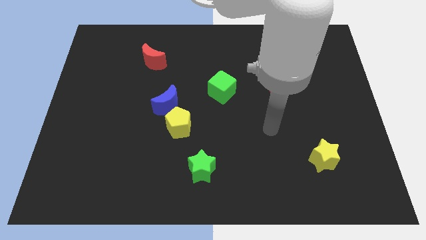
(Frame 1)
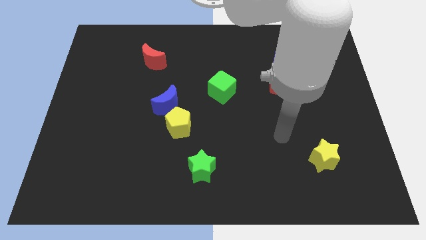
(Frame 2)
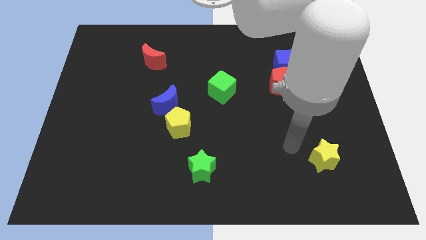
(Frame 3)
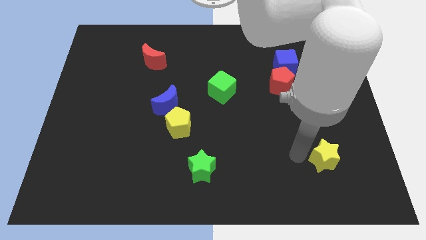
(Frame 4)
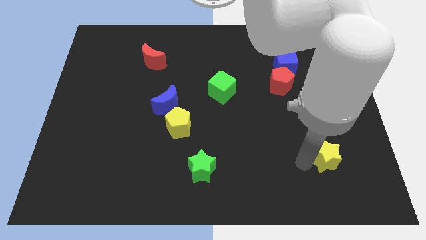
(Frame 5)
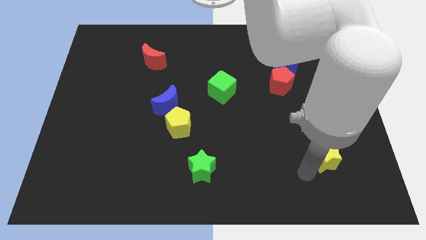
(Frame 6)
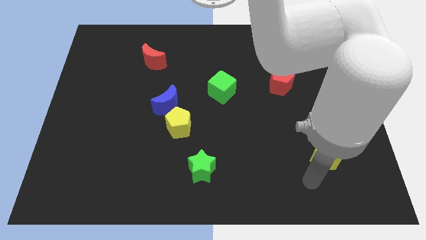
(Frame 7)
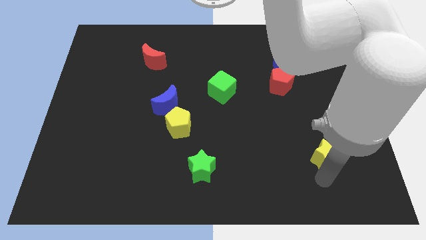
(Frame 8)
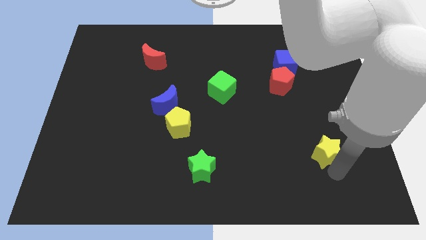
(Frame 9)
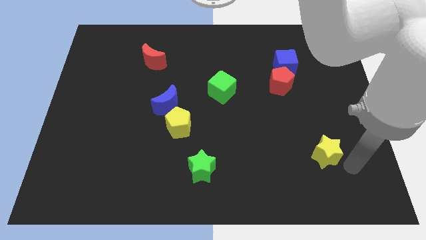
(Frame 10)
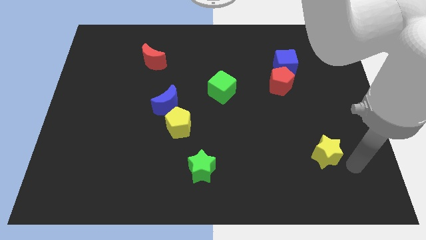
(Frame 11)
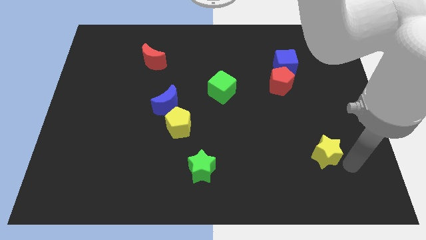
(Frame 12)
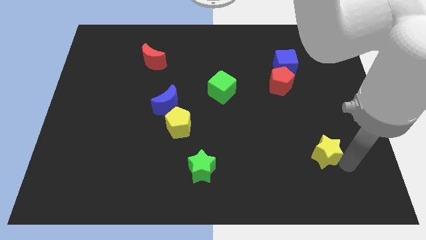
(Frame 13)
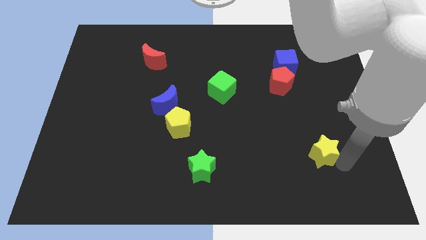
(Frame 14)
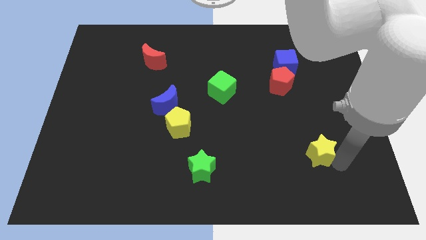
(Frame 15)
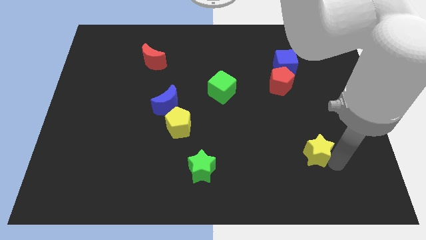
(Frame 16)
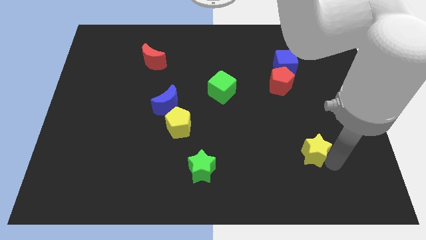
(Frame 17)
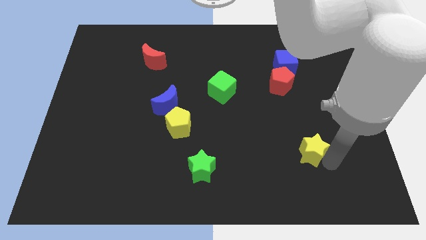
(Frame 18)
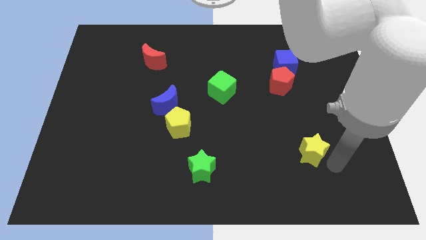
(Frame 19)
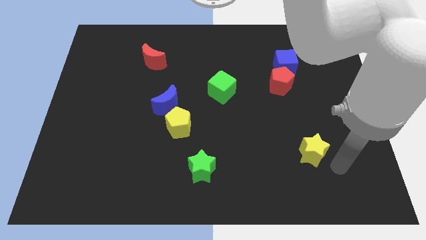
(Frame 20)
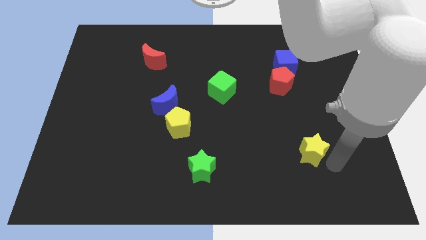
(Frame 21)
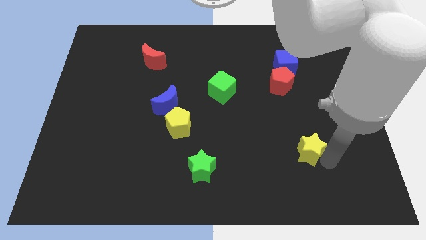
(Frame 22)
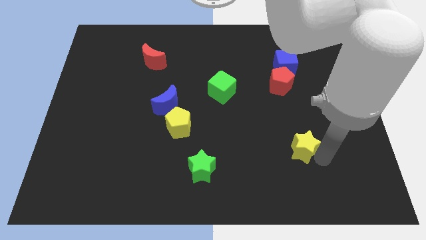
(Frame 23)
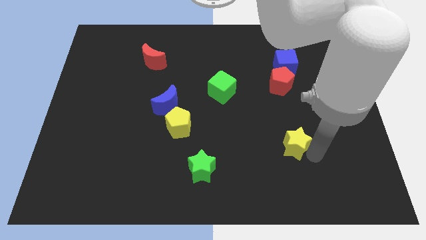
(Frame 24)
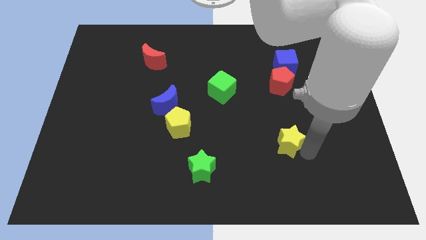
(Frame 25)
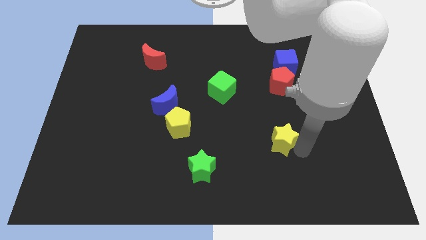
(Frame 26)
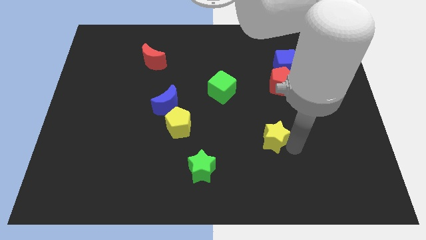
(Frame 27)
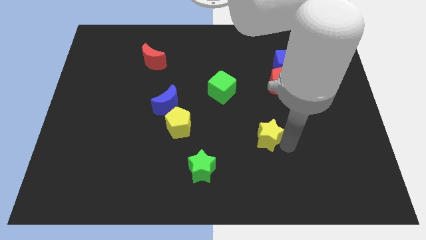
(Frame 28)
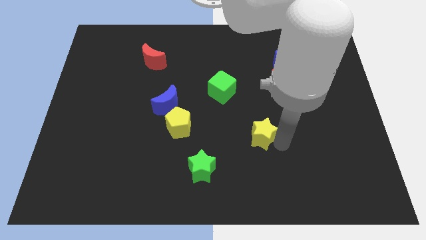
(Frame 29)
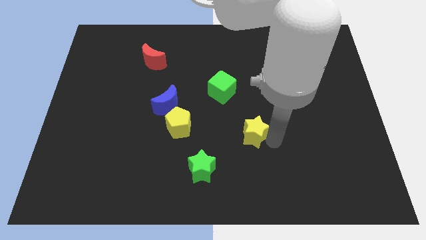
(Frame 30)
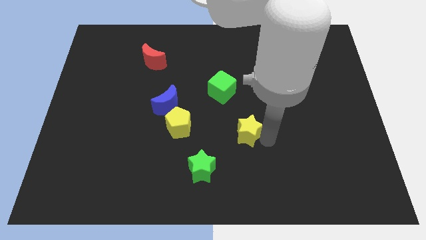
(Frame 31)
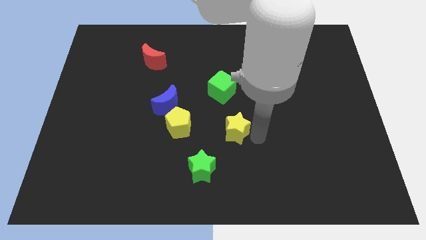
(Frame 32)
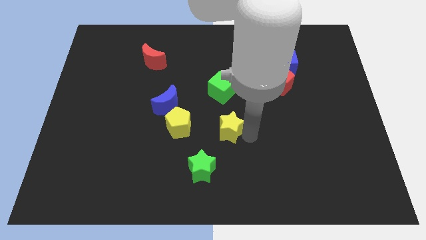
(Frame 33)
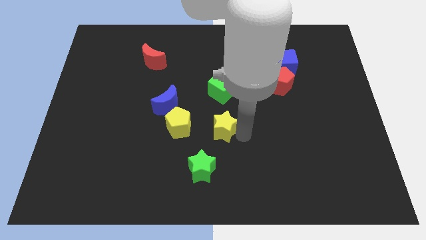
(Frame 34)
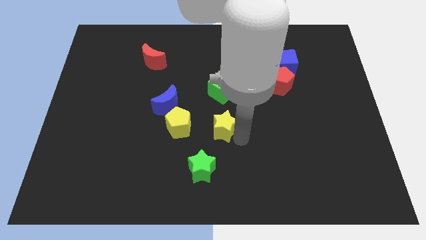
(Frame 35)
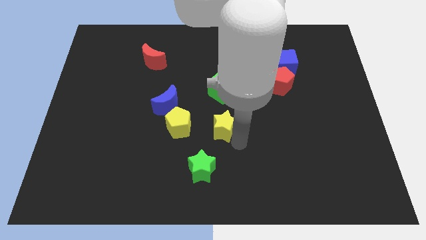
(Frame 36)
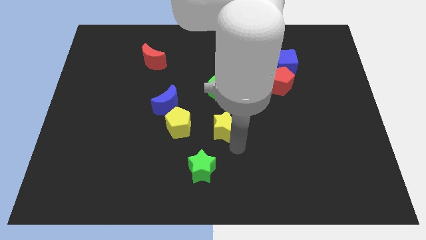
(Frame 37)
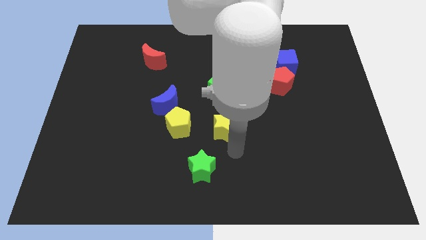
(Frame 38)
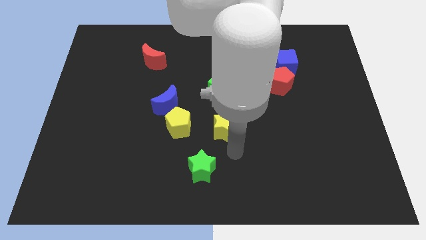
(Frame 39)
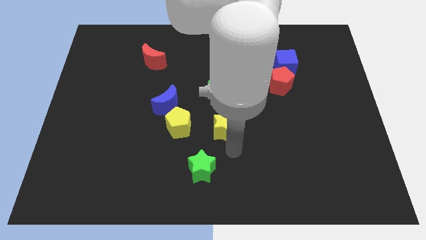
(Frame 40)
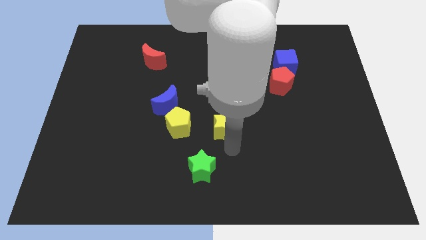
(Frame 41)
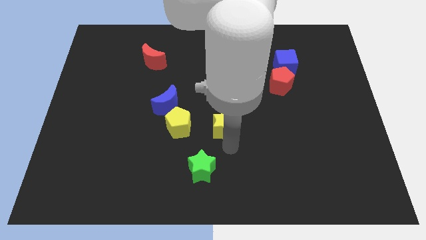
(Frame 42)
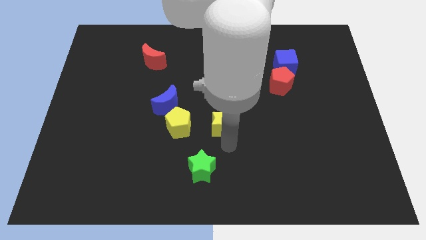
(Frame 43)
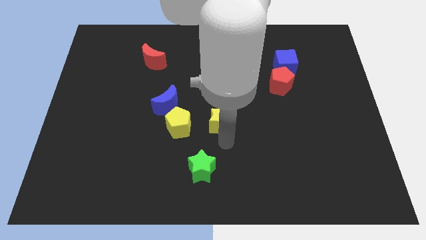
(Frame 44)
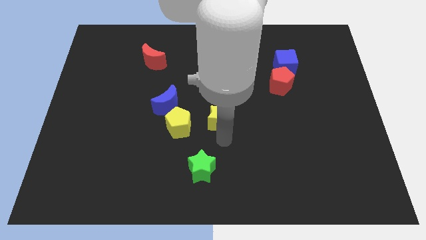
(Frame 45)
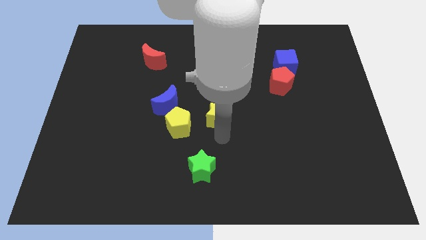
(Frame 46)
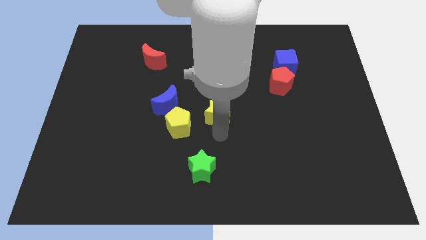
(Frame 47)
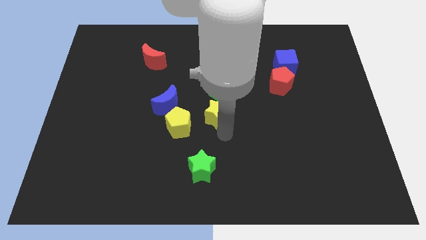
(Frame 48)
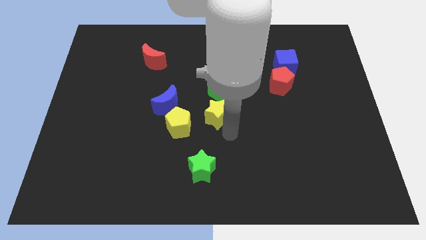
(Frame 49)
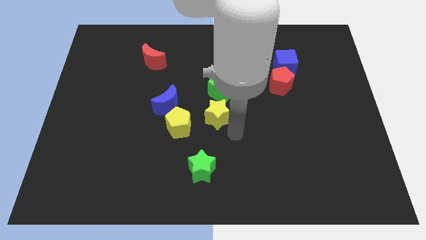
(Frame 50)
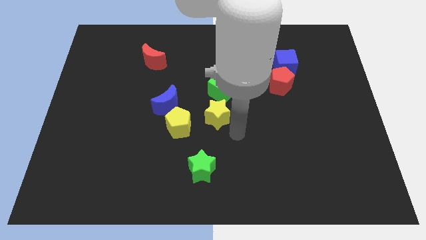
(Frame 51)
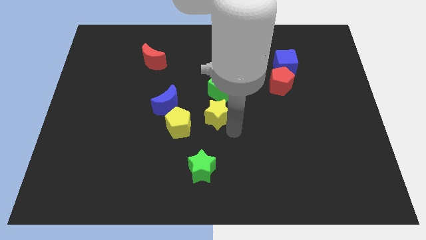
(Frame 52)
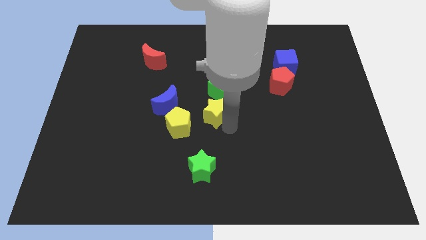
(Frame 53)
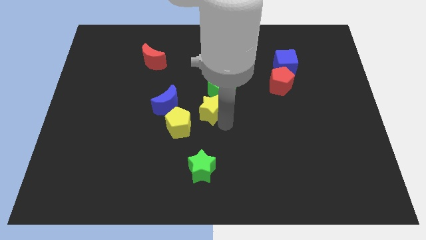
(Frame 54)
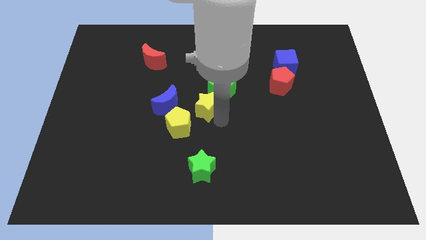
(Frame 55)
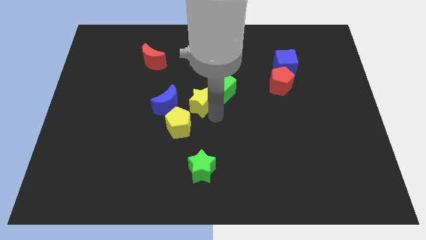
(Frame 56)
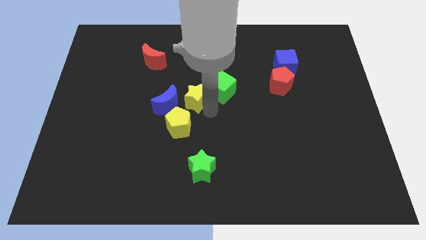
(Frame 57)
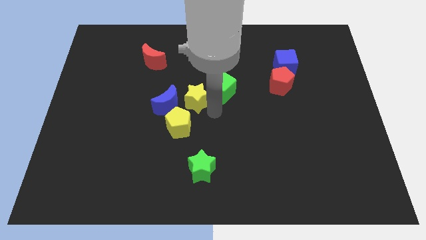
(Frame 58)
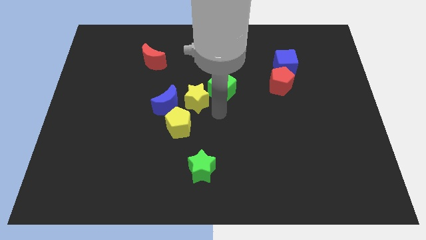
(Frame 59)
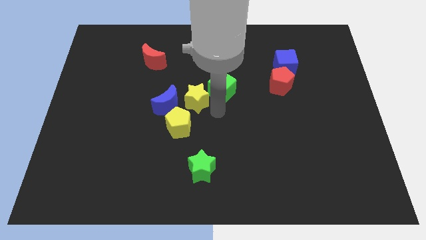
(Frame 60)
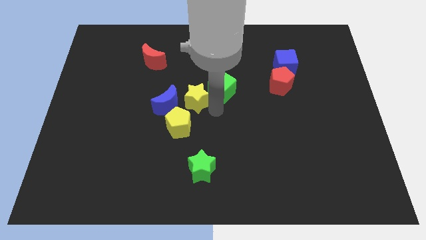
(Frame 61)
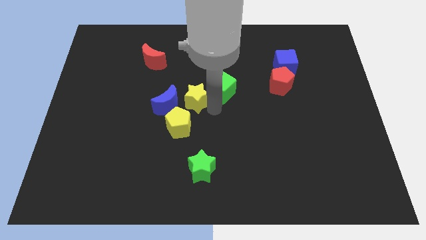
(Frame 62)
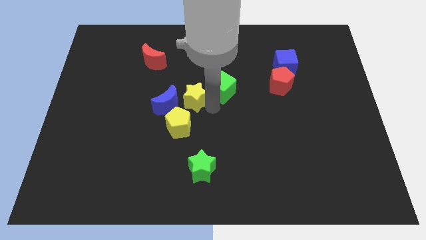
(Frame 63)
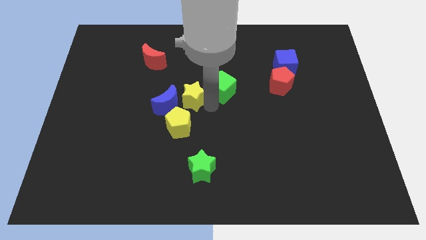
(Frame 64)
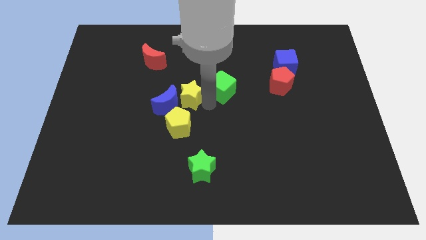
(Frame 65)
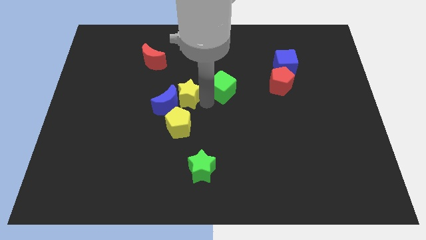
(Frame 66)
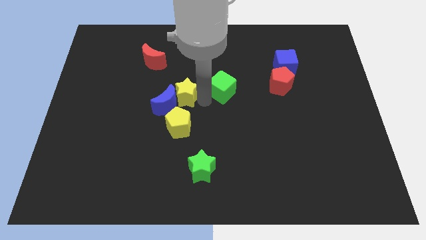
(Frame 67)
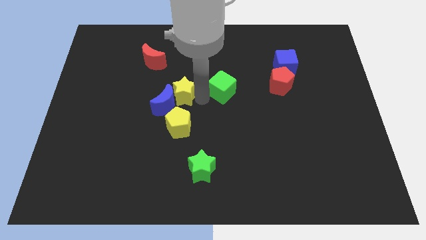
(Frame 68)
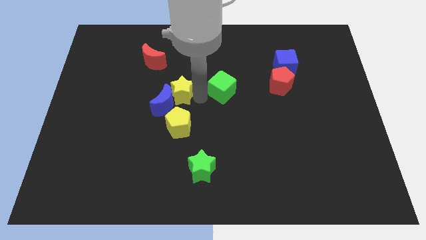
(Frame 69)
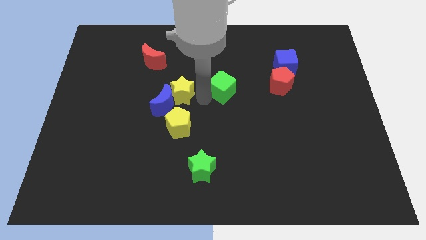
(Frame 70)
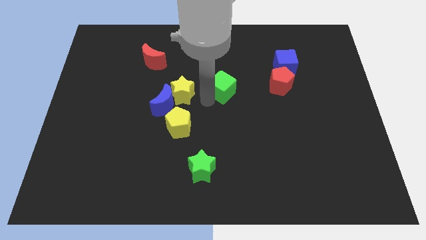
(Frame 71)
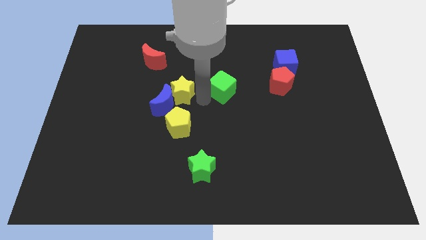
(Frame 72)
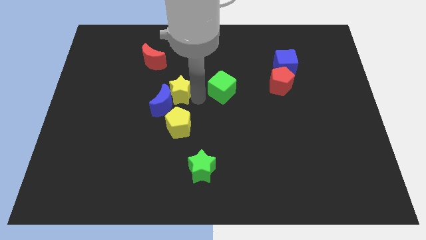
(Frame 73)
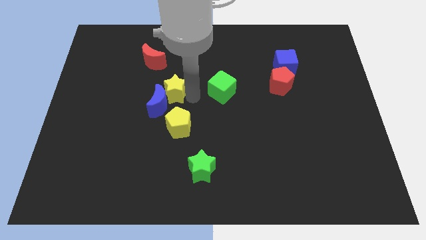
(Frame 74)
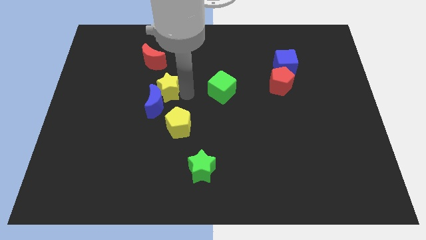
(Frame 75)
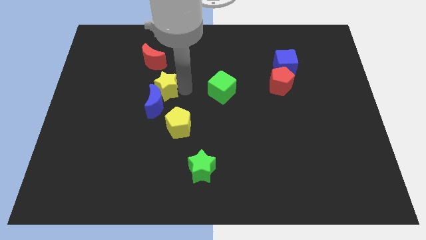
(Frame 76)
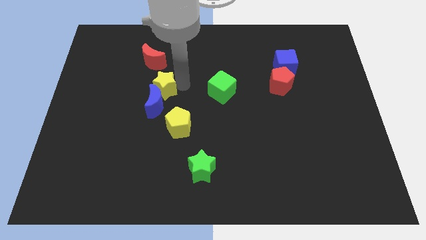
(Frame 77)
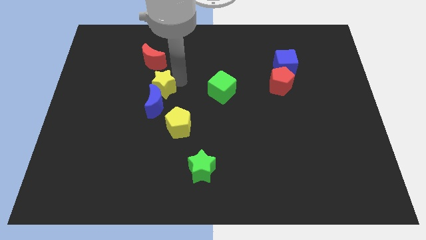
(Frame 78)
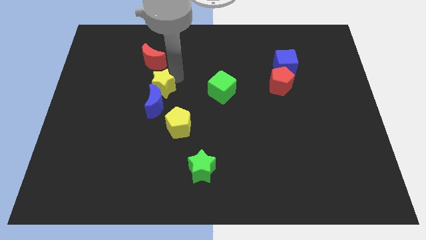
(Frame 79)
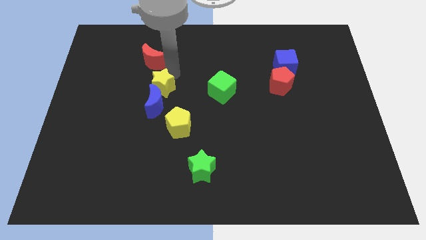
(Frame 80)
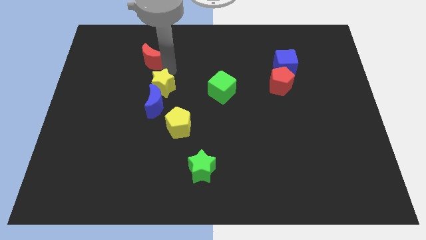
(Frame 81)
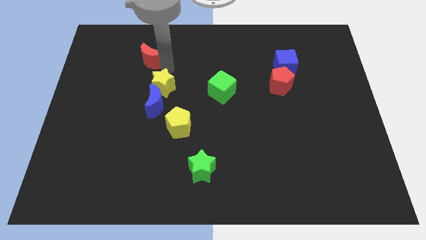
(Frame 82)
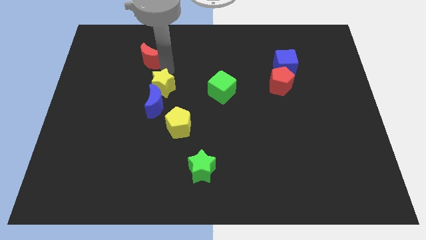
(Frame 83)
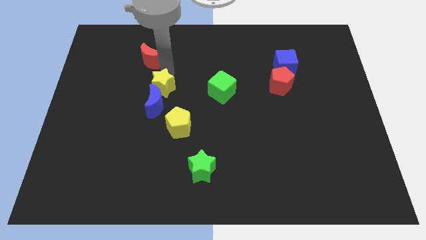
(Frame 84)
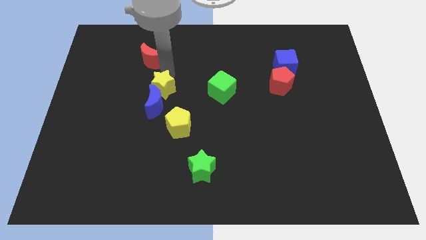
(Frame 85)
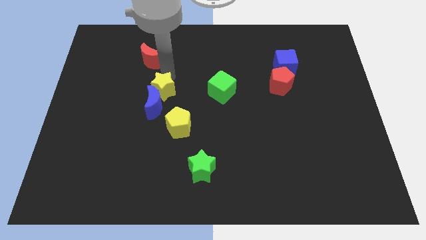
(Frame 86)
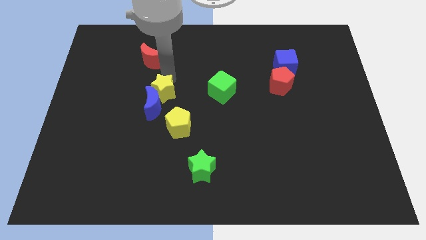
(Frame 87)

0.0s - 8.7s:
slide the yellow star to the top left side of the yellow pentagon
